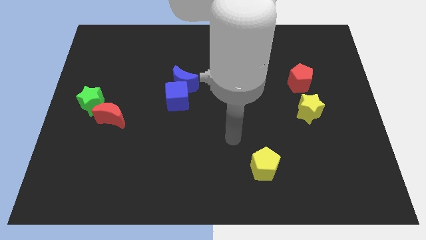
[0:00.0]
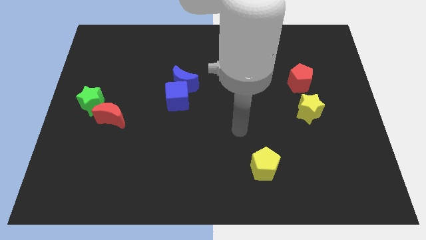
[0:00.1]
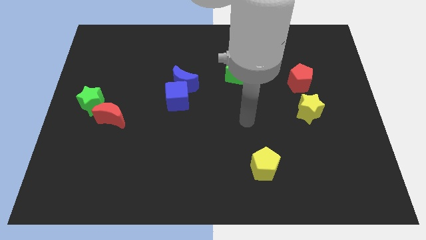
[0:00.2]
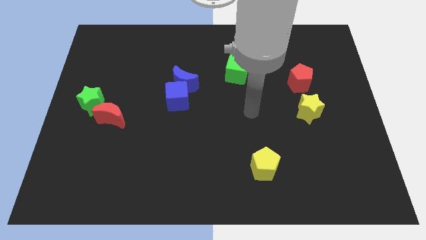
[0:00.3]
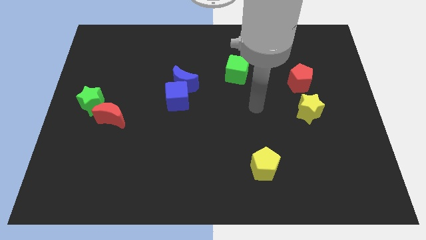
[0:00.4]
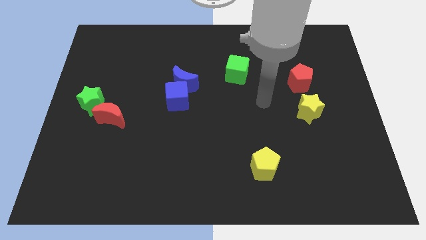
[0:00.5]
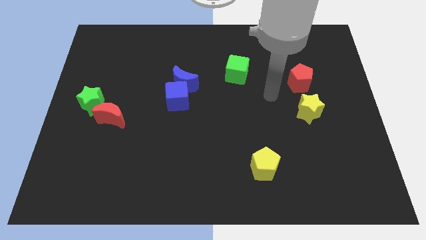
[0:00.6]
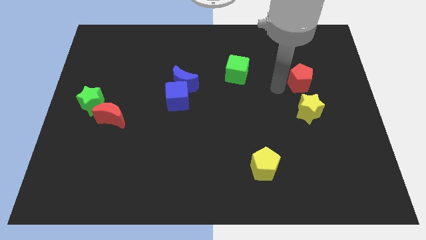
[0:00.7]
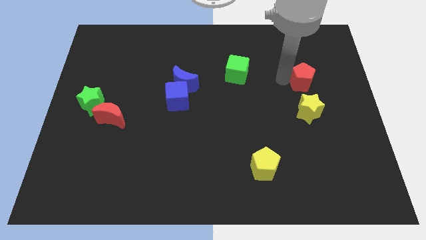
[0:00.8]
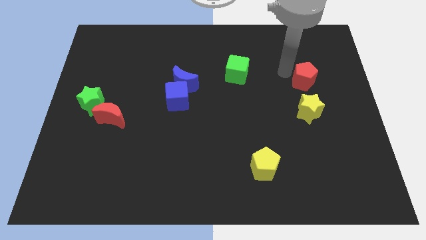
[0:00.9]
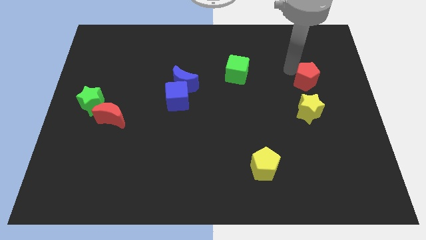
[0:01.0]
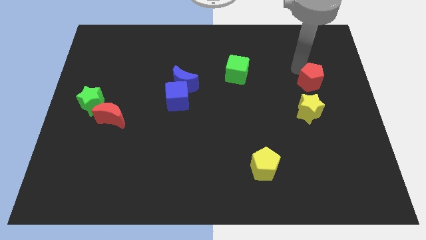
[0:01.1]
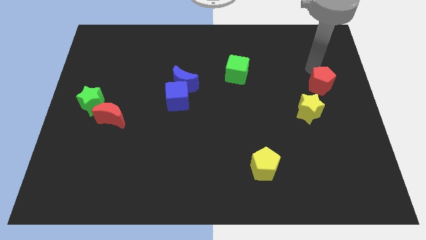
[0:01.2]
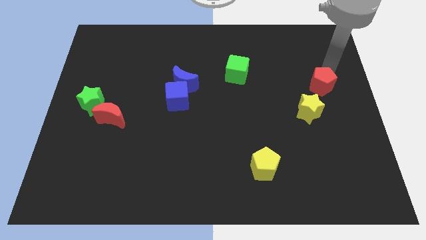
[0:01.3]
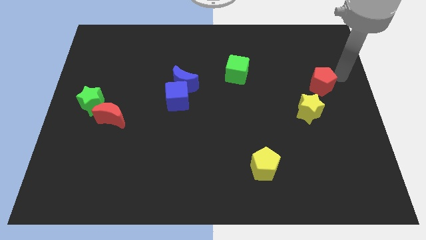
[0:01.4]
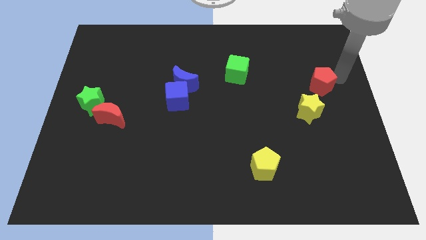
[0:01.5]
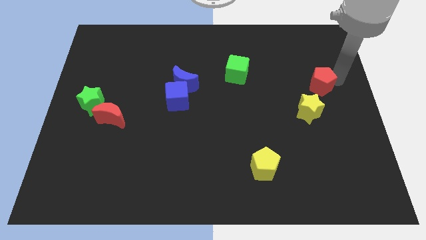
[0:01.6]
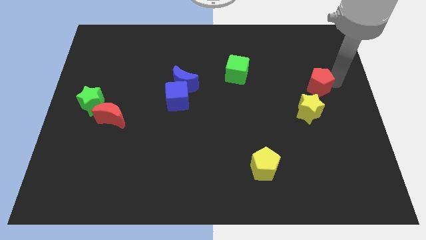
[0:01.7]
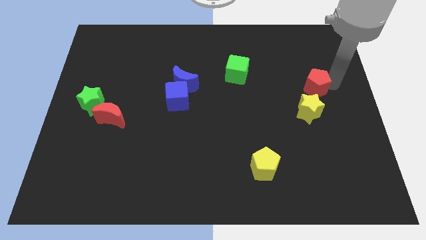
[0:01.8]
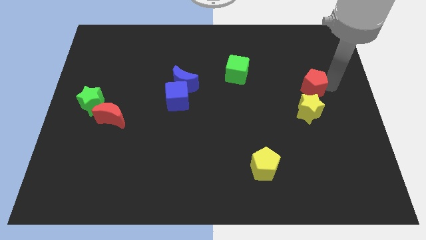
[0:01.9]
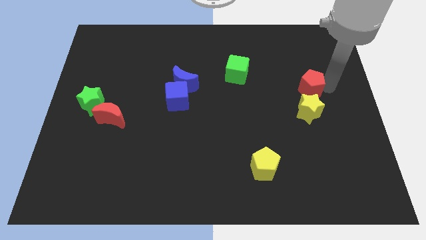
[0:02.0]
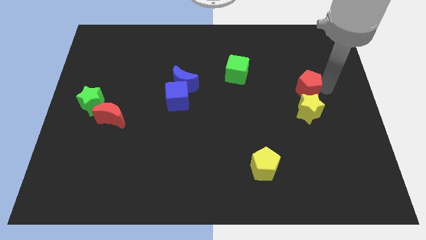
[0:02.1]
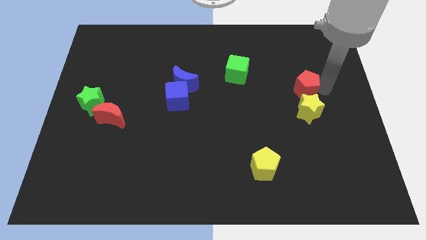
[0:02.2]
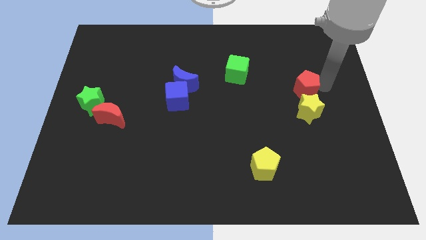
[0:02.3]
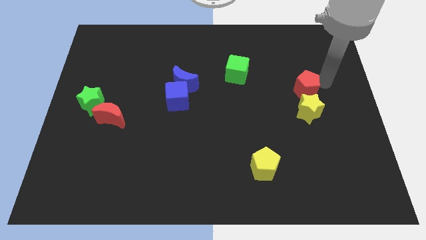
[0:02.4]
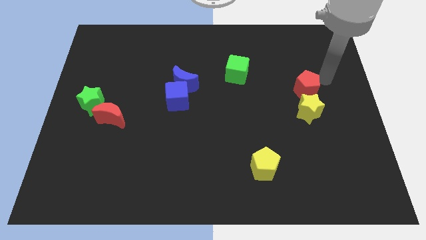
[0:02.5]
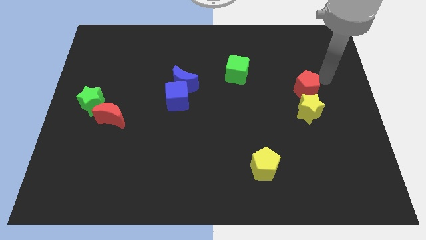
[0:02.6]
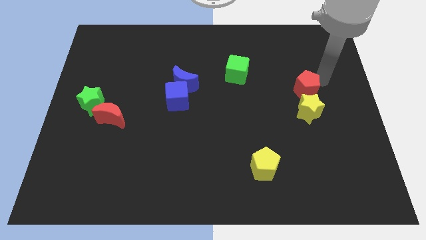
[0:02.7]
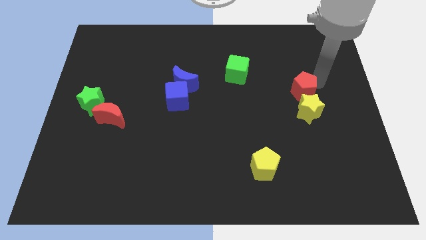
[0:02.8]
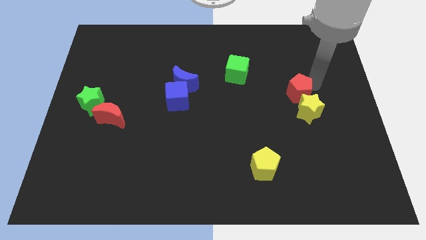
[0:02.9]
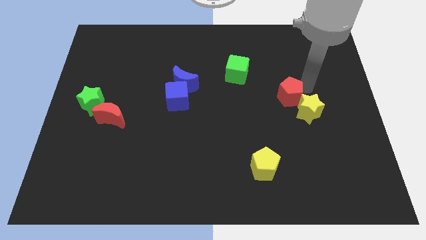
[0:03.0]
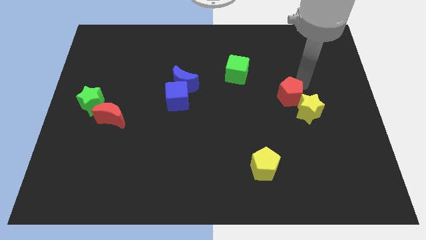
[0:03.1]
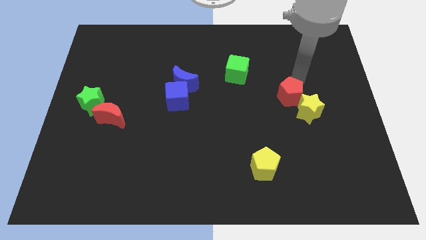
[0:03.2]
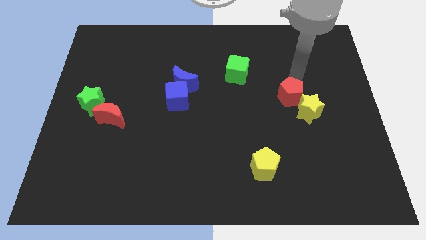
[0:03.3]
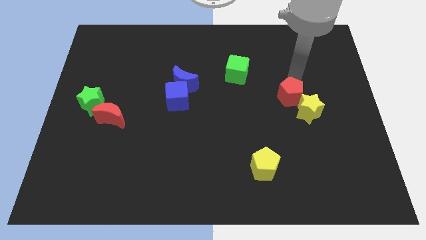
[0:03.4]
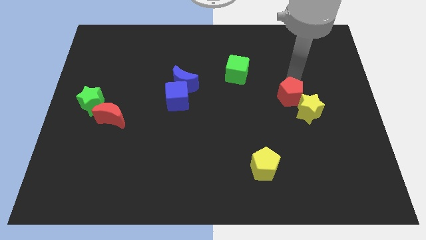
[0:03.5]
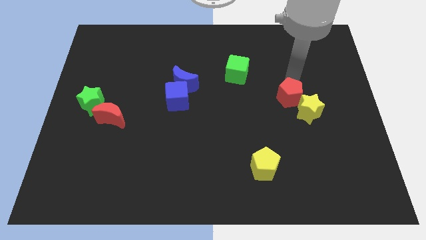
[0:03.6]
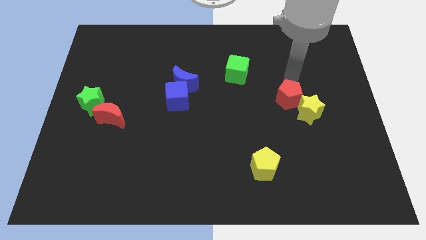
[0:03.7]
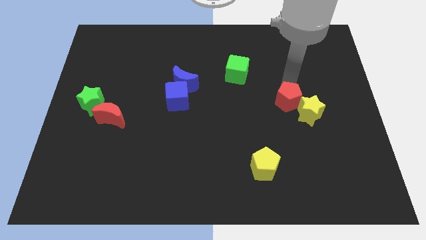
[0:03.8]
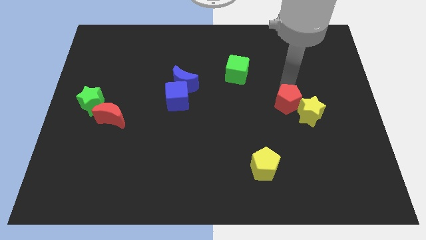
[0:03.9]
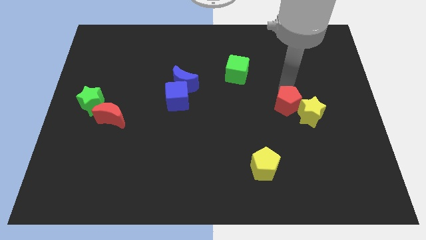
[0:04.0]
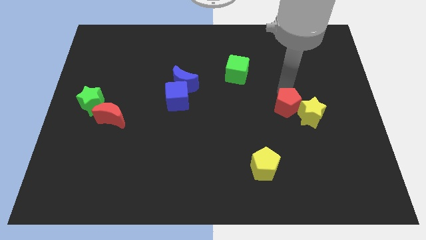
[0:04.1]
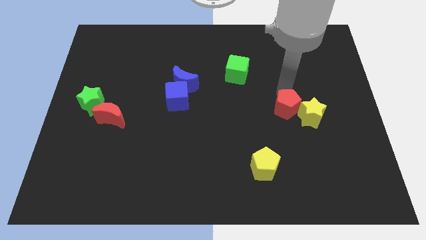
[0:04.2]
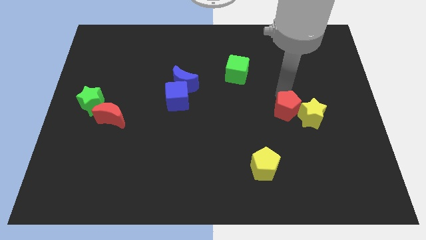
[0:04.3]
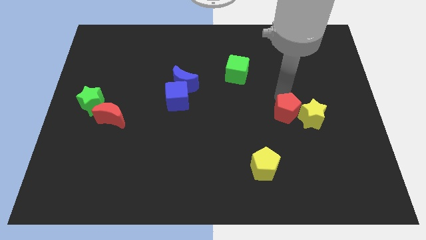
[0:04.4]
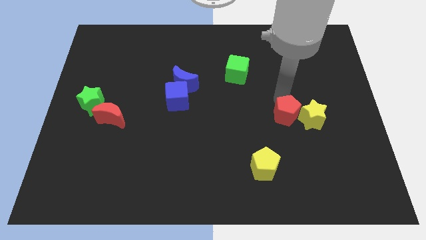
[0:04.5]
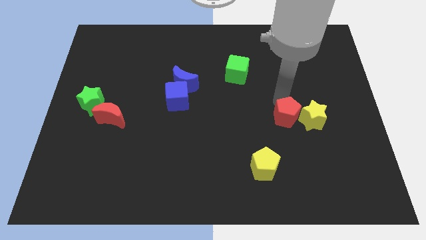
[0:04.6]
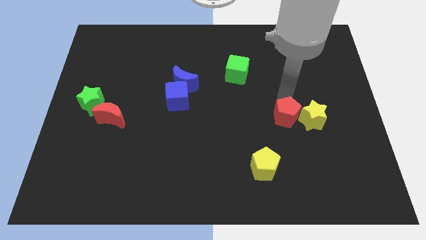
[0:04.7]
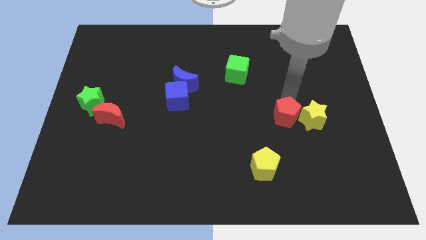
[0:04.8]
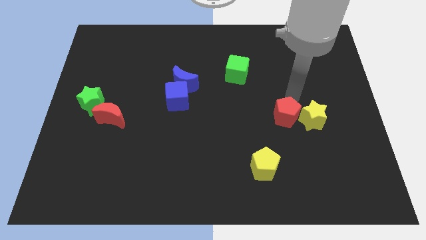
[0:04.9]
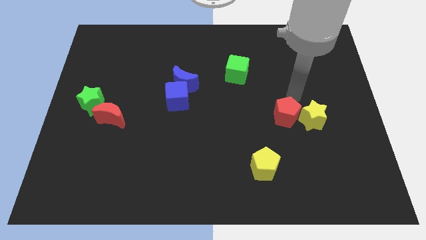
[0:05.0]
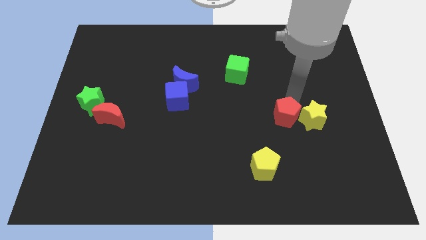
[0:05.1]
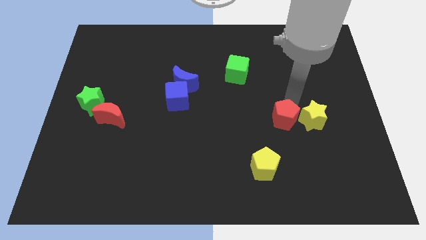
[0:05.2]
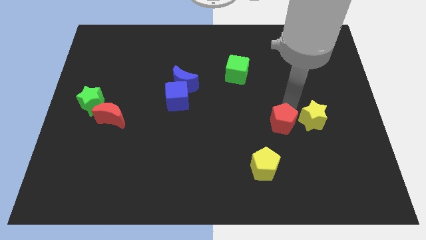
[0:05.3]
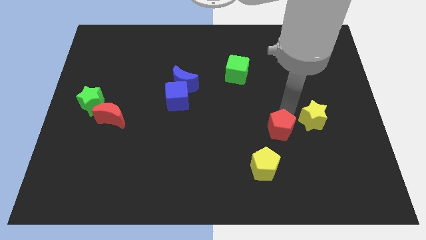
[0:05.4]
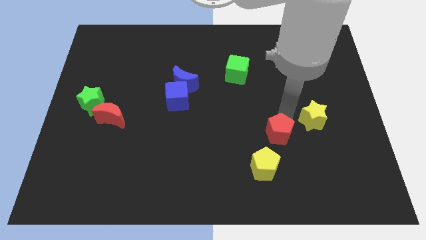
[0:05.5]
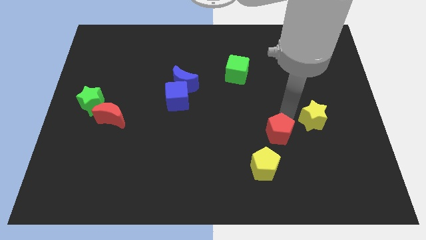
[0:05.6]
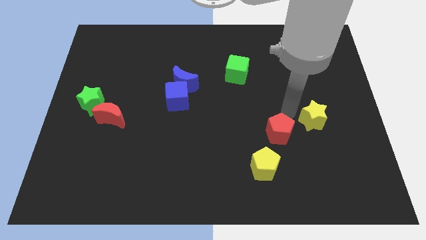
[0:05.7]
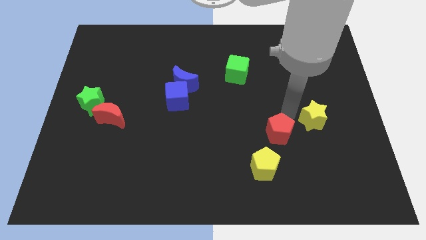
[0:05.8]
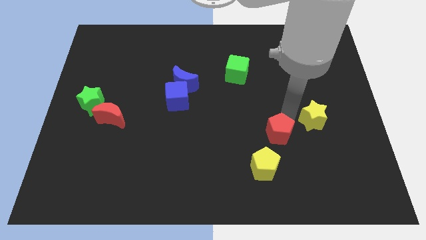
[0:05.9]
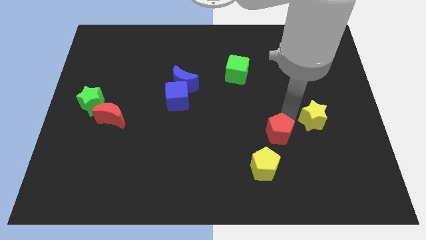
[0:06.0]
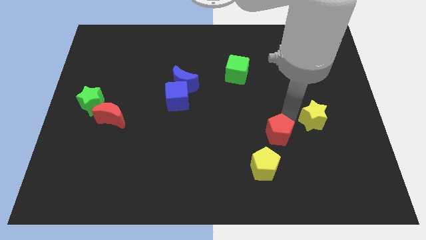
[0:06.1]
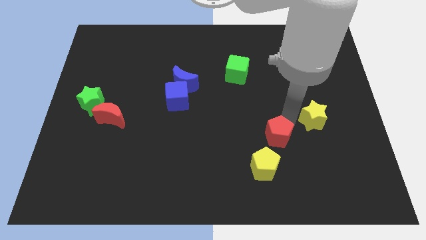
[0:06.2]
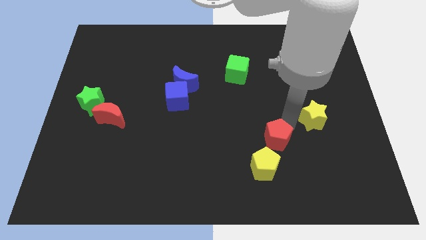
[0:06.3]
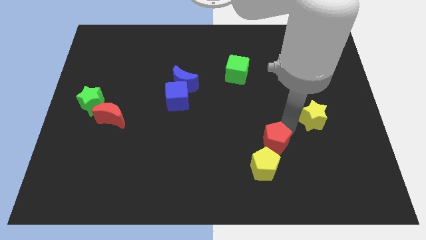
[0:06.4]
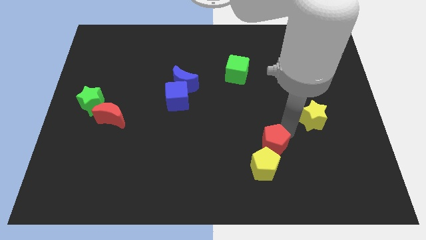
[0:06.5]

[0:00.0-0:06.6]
slide the red pentagon close to the yellow pentagon
